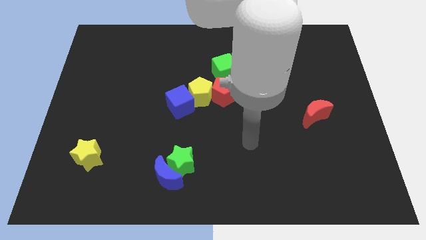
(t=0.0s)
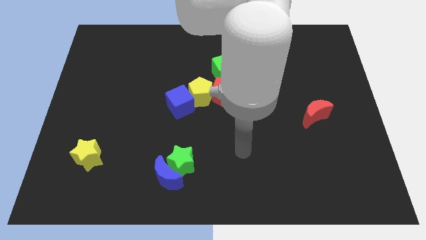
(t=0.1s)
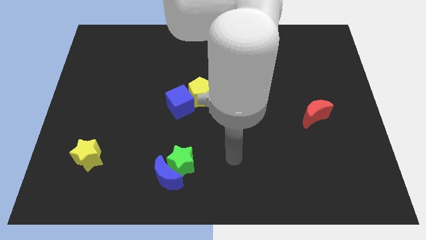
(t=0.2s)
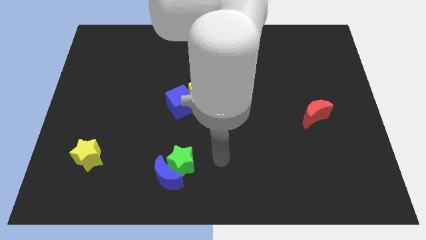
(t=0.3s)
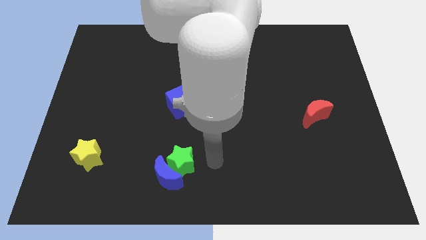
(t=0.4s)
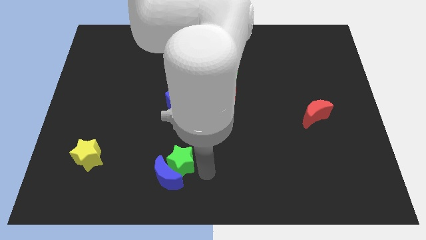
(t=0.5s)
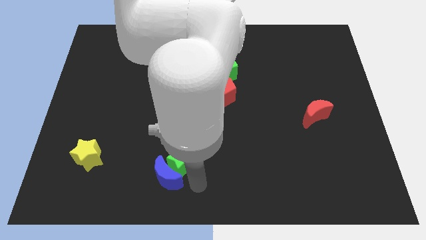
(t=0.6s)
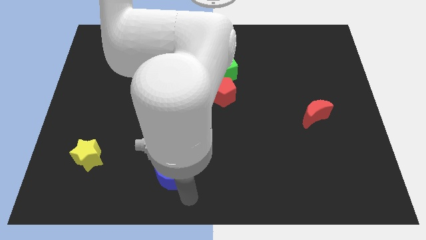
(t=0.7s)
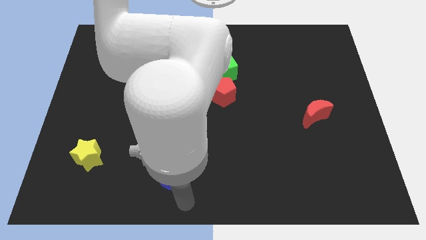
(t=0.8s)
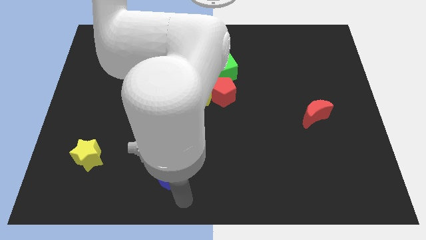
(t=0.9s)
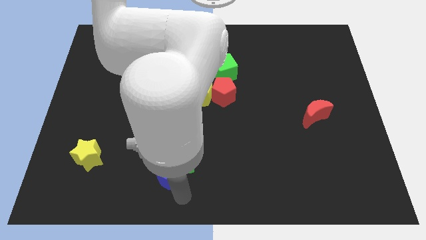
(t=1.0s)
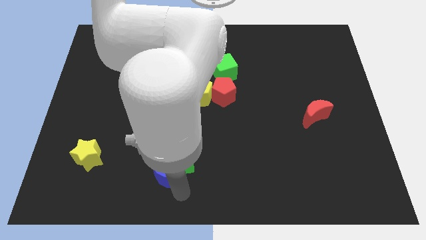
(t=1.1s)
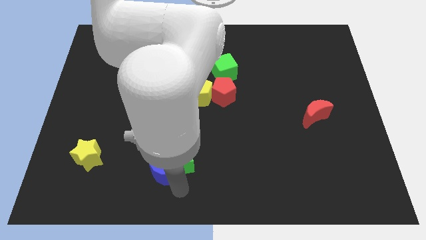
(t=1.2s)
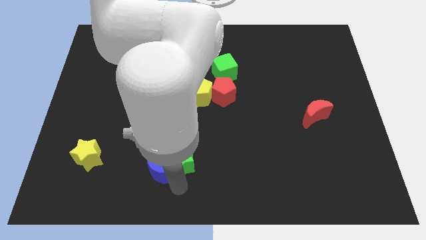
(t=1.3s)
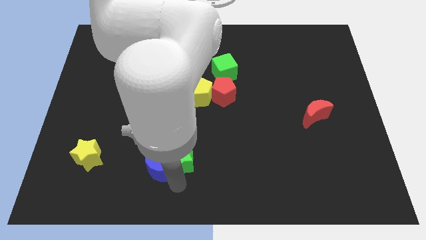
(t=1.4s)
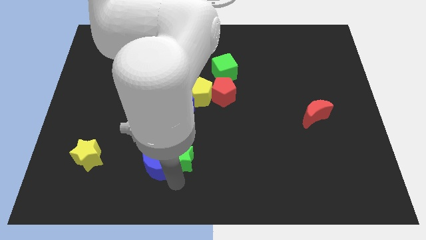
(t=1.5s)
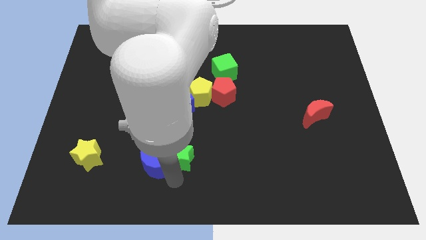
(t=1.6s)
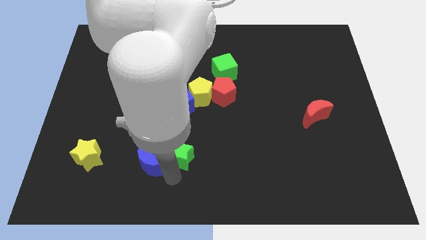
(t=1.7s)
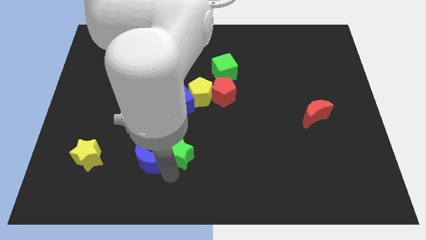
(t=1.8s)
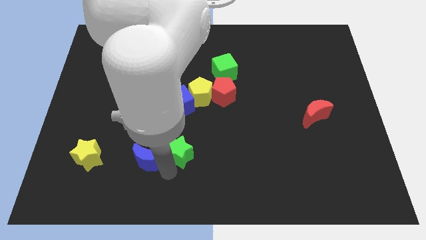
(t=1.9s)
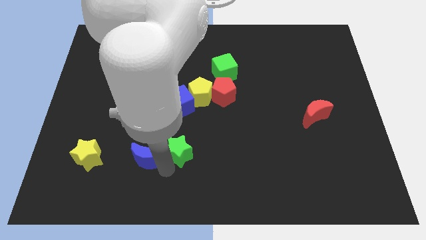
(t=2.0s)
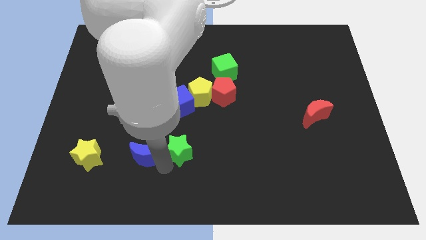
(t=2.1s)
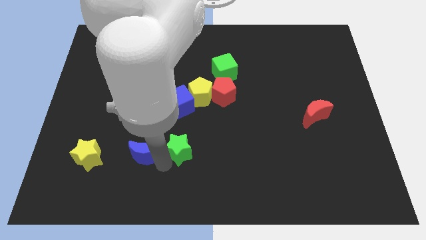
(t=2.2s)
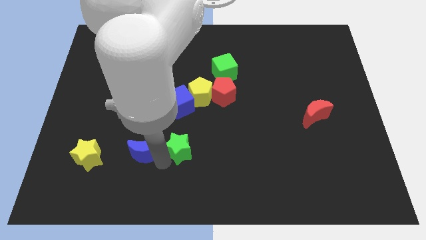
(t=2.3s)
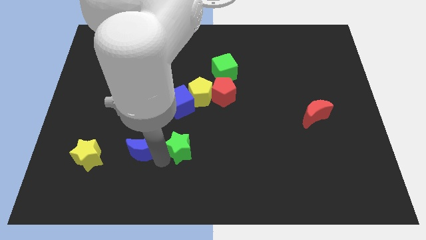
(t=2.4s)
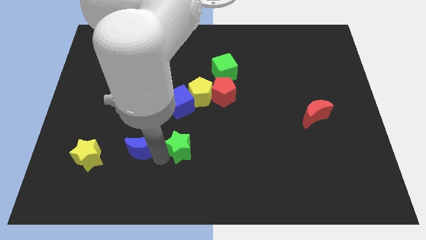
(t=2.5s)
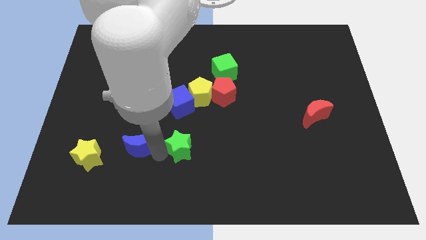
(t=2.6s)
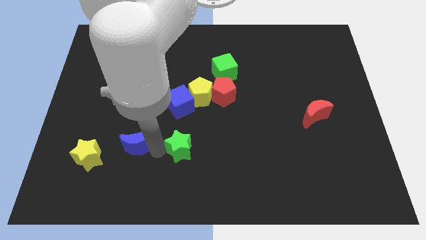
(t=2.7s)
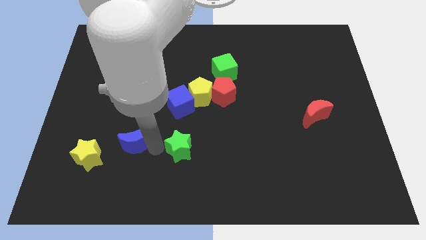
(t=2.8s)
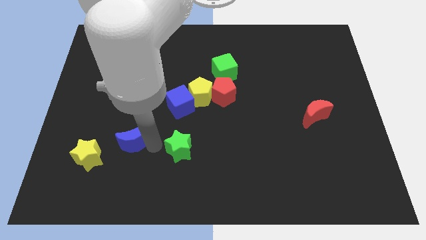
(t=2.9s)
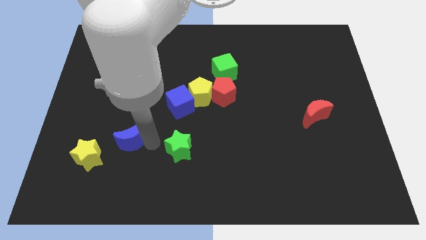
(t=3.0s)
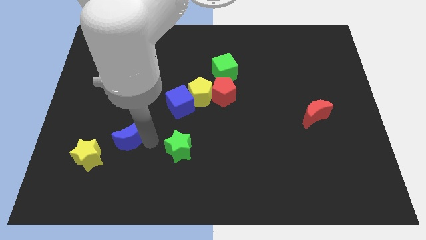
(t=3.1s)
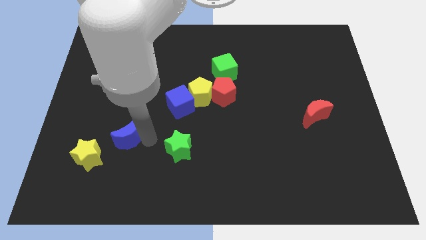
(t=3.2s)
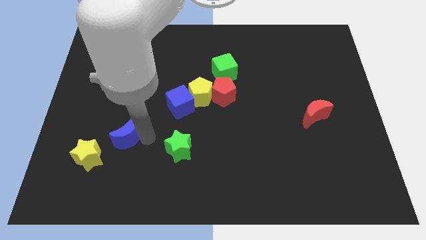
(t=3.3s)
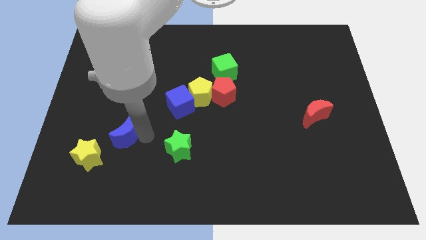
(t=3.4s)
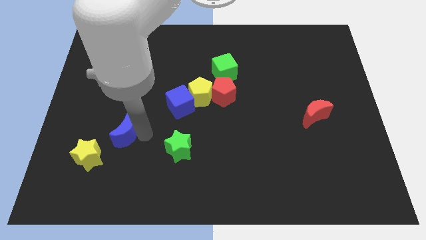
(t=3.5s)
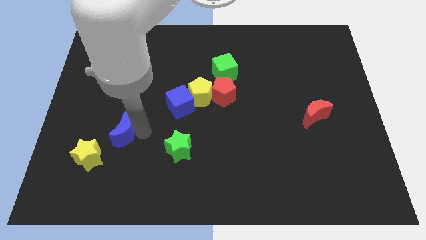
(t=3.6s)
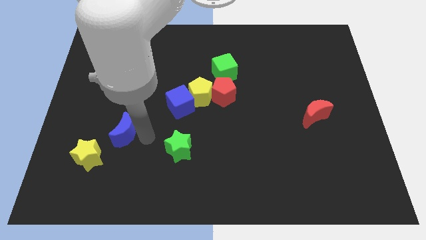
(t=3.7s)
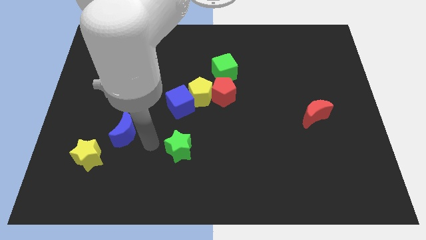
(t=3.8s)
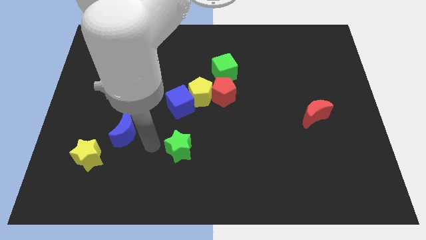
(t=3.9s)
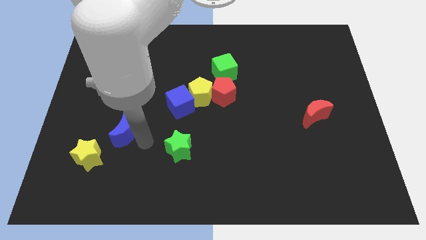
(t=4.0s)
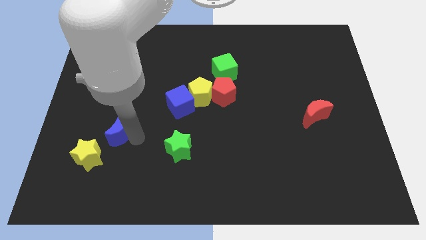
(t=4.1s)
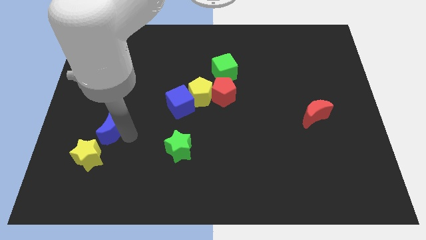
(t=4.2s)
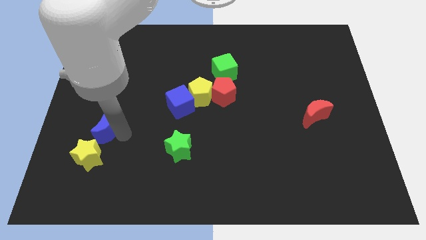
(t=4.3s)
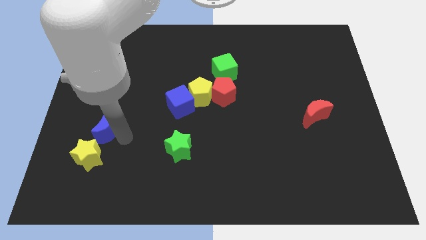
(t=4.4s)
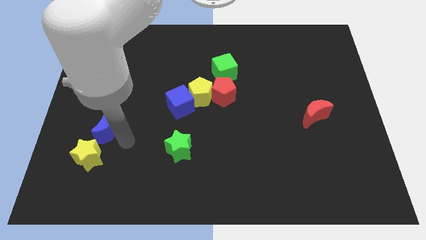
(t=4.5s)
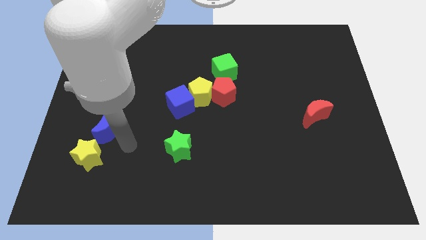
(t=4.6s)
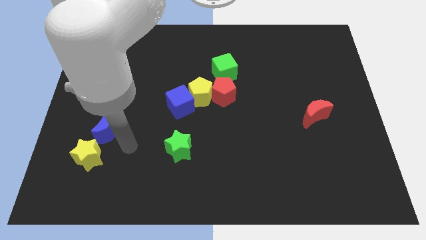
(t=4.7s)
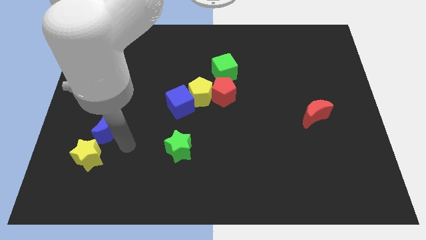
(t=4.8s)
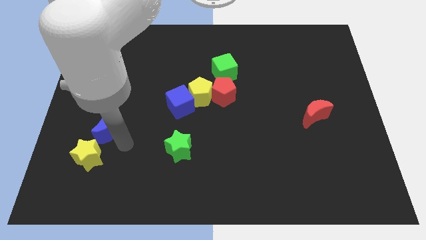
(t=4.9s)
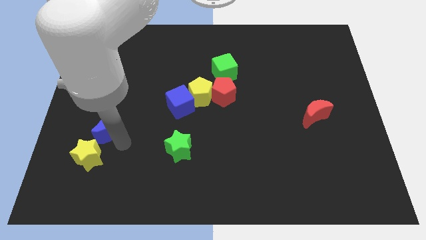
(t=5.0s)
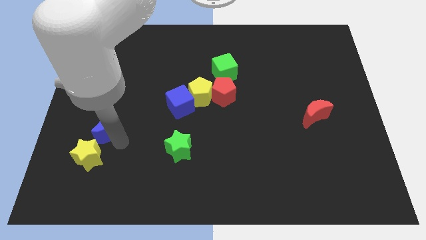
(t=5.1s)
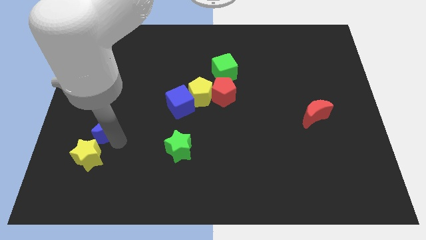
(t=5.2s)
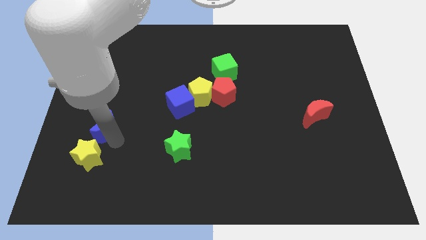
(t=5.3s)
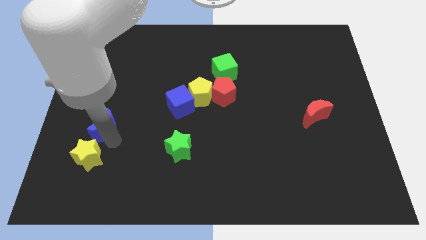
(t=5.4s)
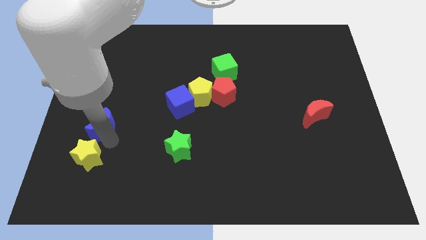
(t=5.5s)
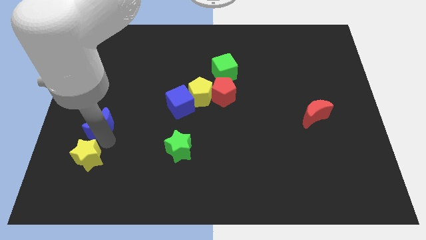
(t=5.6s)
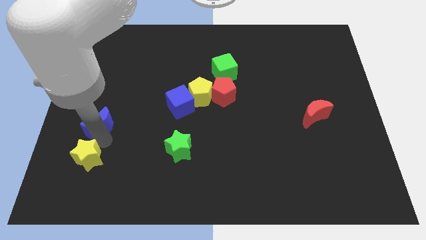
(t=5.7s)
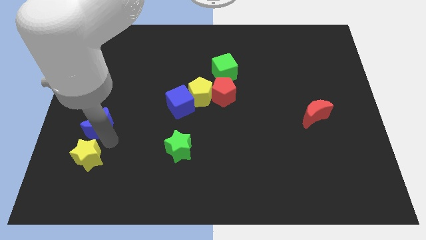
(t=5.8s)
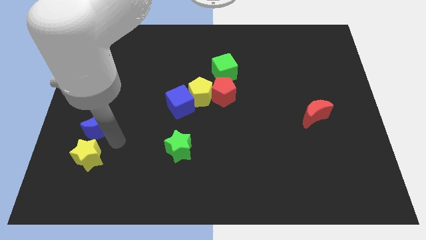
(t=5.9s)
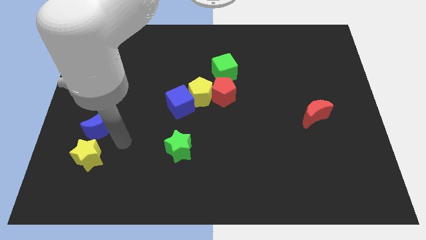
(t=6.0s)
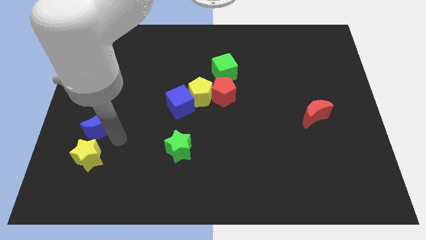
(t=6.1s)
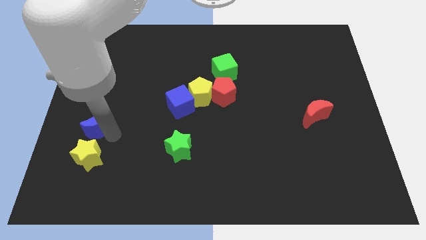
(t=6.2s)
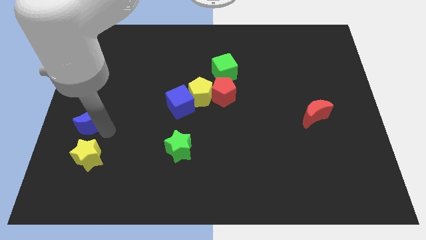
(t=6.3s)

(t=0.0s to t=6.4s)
move the blue moon to the center left
